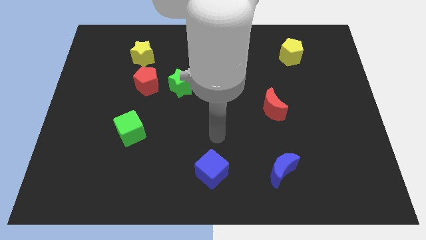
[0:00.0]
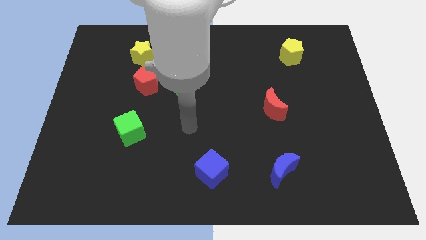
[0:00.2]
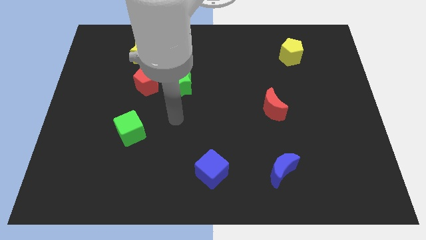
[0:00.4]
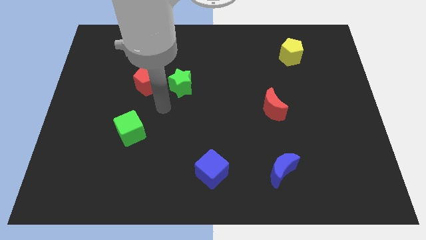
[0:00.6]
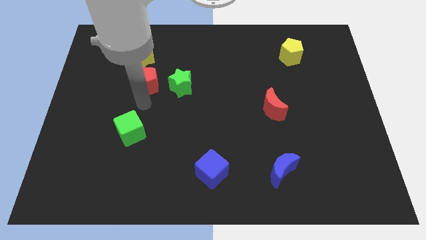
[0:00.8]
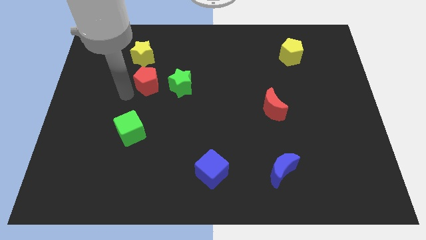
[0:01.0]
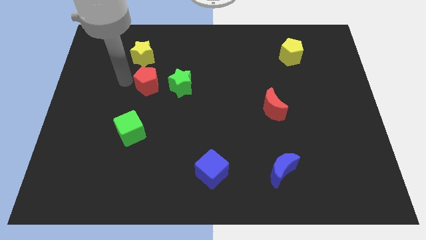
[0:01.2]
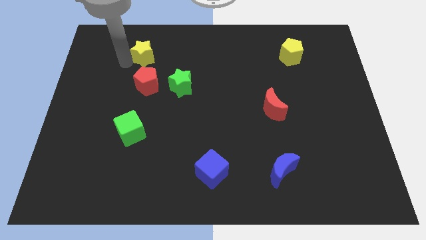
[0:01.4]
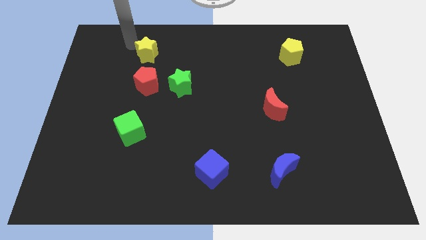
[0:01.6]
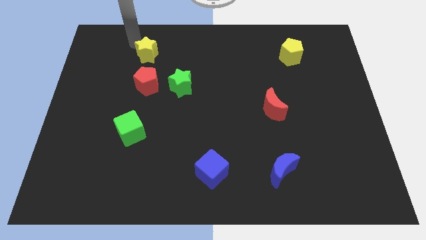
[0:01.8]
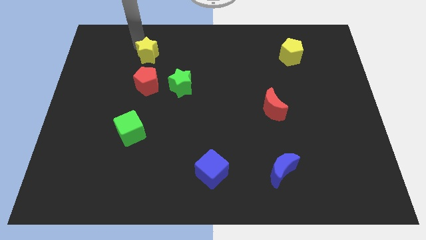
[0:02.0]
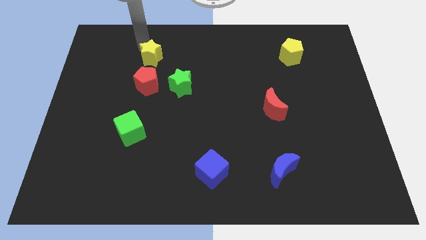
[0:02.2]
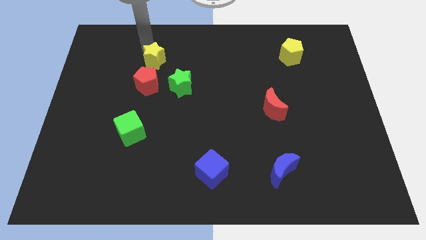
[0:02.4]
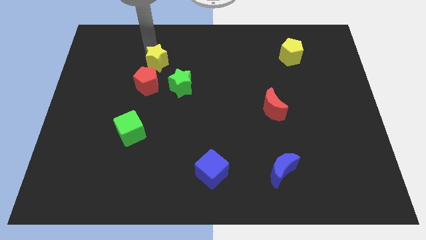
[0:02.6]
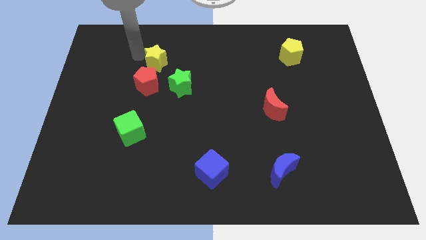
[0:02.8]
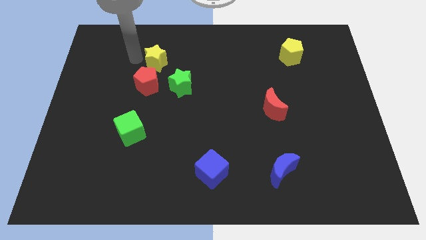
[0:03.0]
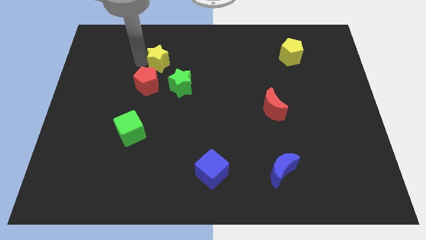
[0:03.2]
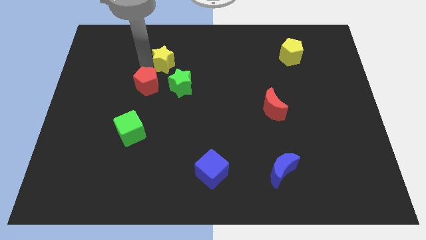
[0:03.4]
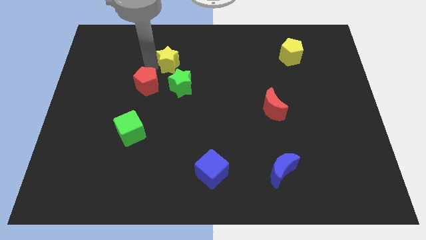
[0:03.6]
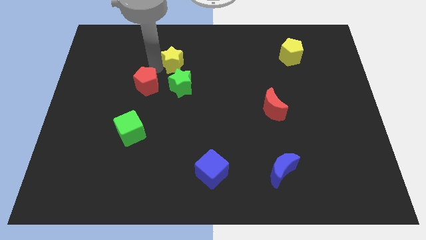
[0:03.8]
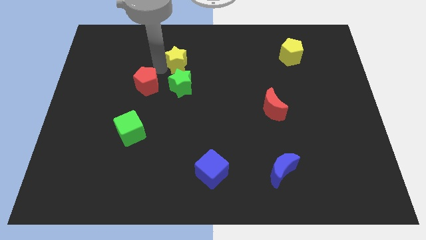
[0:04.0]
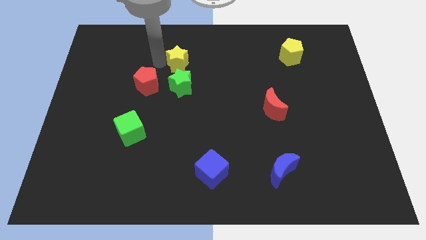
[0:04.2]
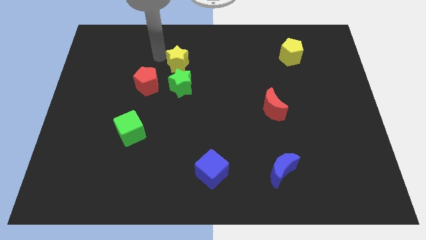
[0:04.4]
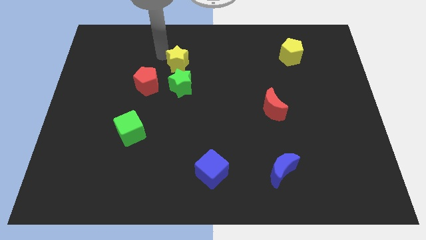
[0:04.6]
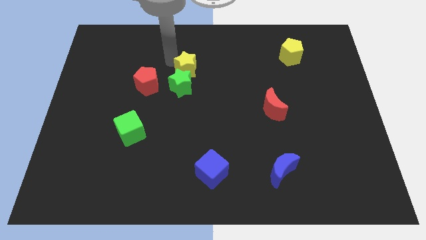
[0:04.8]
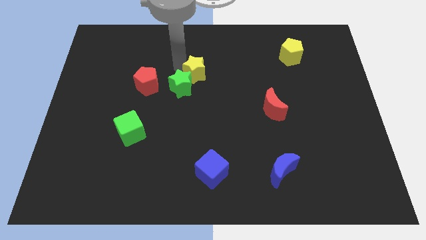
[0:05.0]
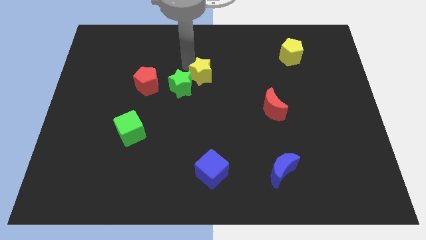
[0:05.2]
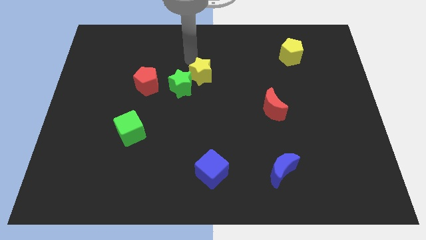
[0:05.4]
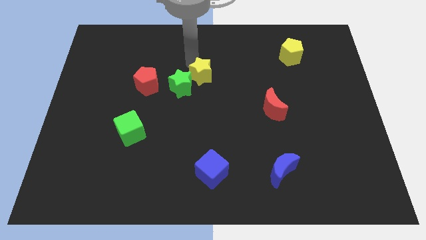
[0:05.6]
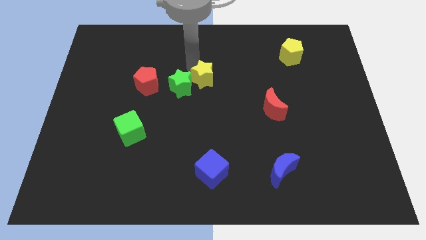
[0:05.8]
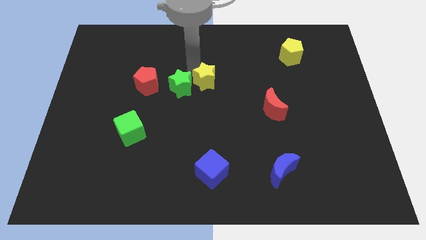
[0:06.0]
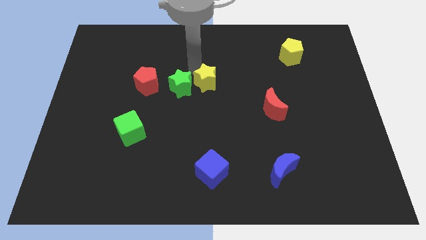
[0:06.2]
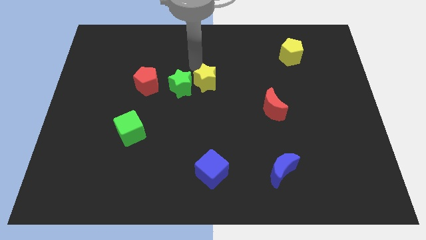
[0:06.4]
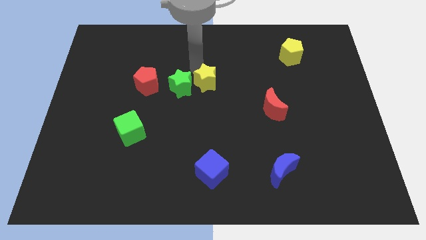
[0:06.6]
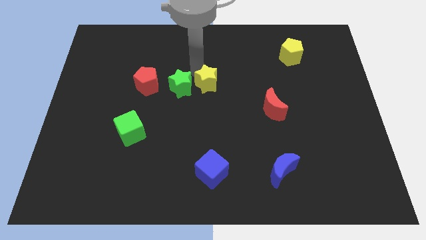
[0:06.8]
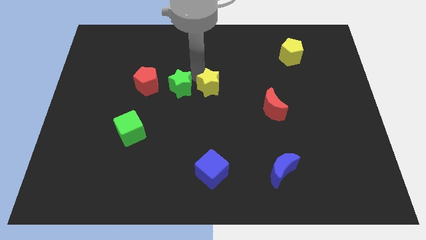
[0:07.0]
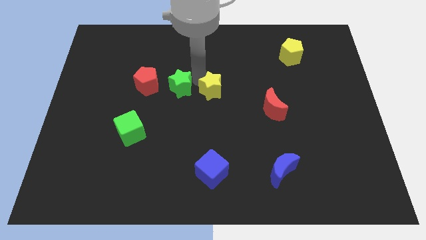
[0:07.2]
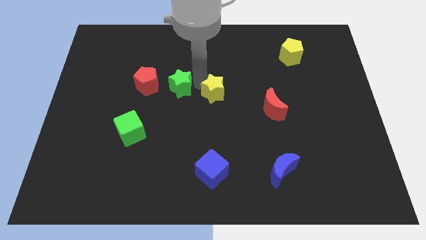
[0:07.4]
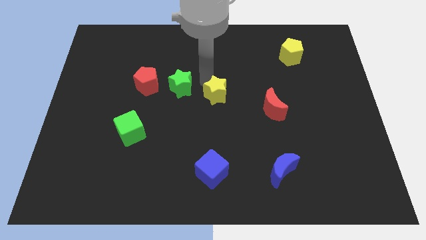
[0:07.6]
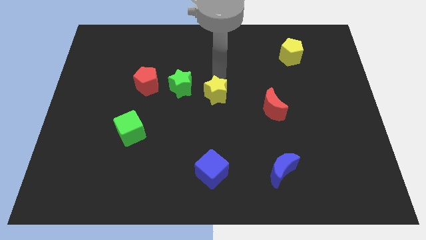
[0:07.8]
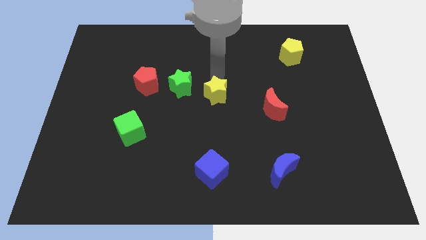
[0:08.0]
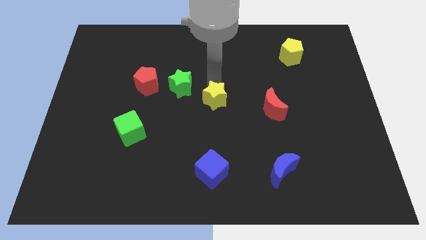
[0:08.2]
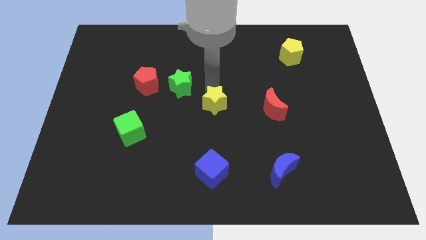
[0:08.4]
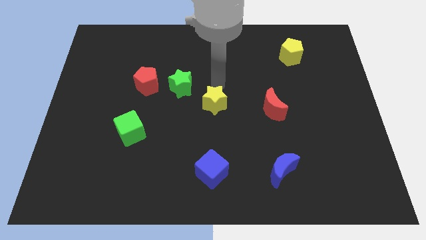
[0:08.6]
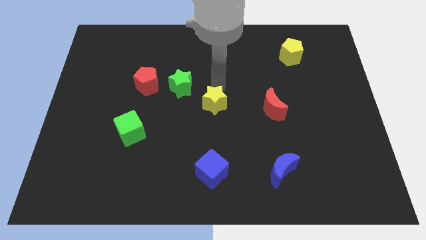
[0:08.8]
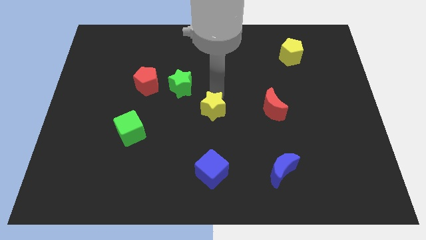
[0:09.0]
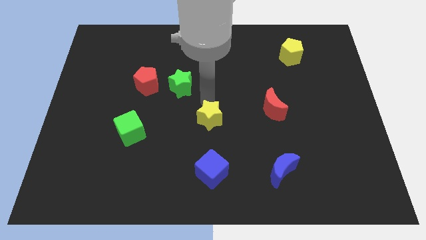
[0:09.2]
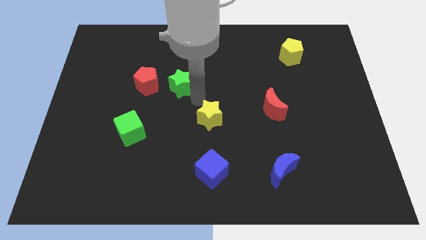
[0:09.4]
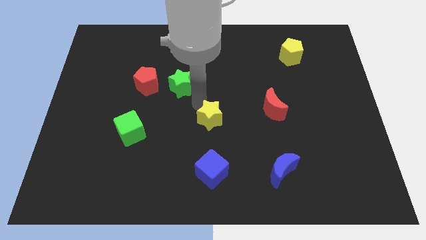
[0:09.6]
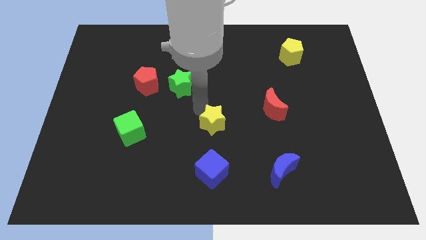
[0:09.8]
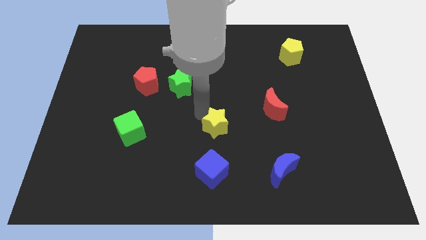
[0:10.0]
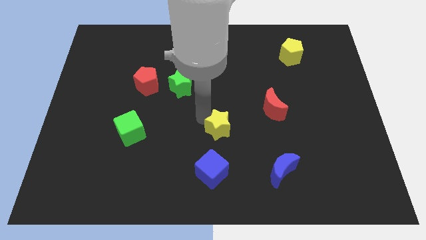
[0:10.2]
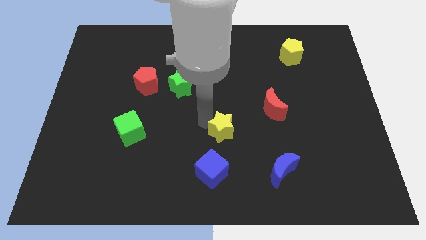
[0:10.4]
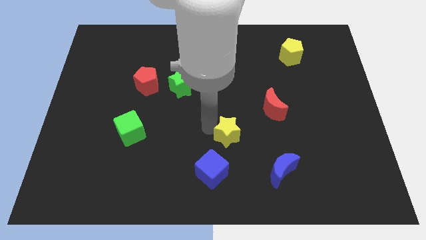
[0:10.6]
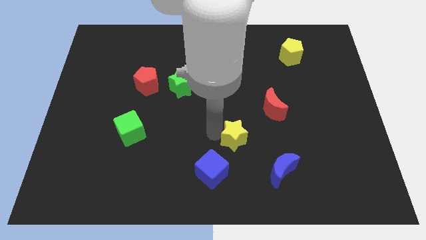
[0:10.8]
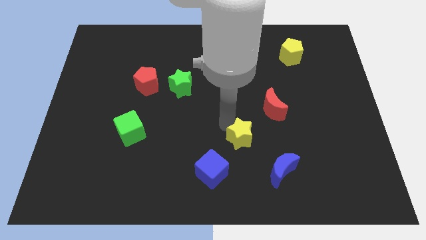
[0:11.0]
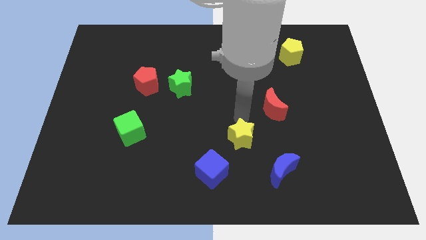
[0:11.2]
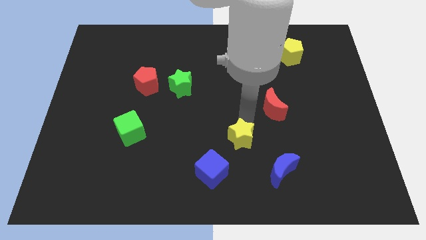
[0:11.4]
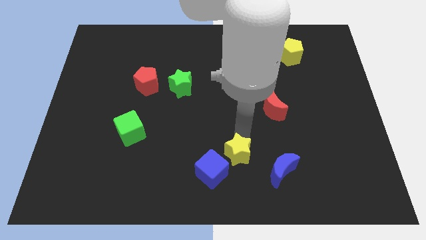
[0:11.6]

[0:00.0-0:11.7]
put the yellow star left of the blue moon
